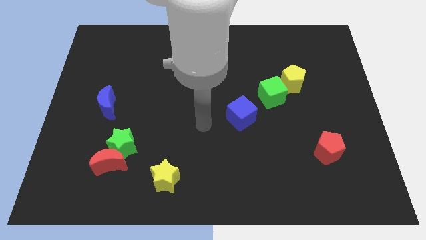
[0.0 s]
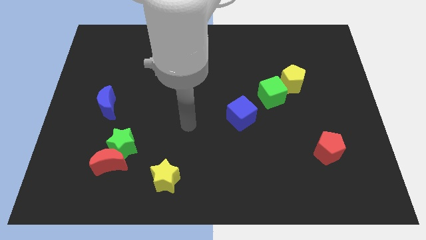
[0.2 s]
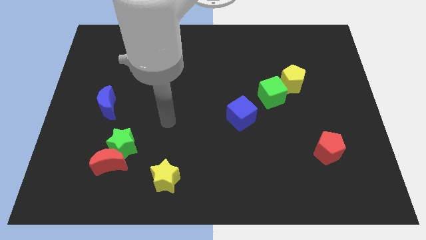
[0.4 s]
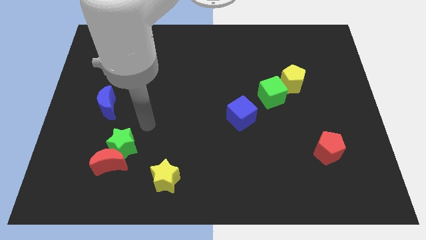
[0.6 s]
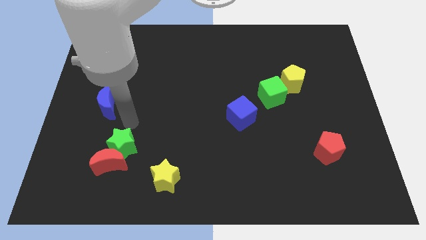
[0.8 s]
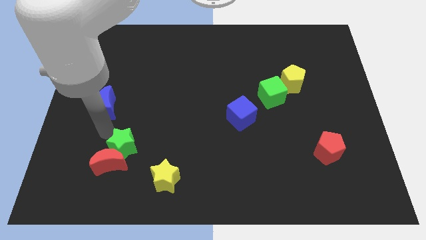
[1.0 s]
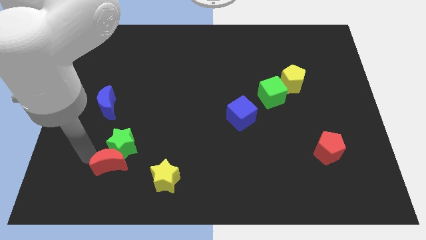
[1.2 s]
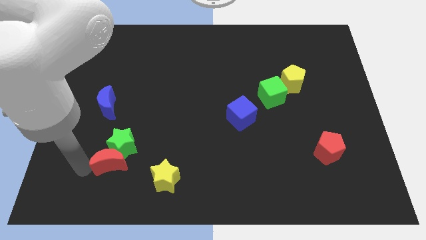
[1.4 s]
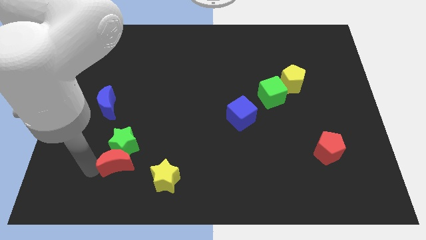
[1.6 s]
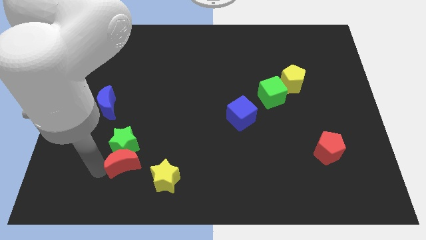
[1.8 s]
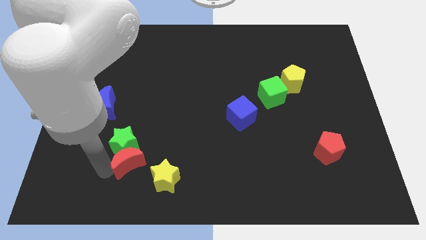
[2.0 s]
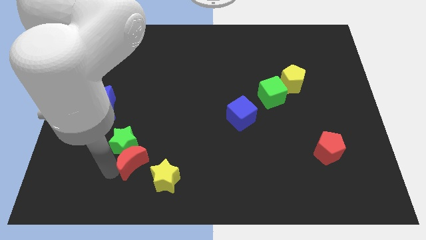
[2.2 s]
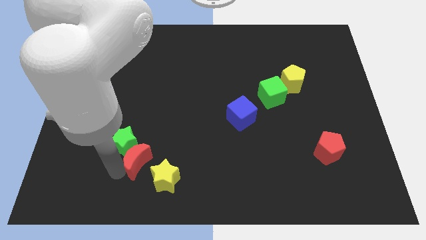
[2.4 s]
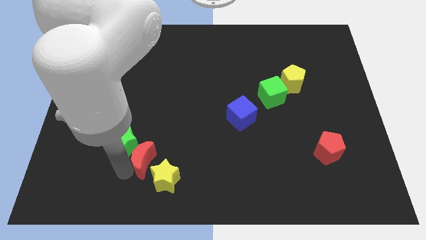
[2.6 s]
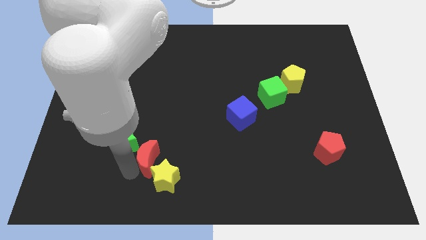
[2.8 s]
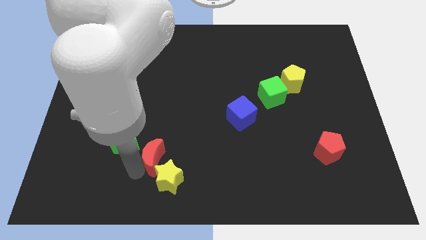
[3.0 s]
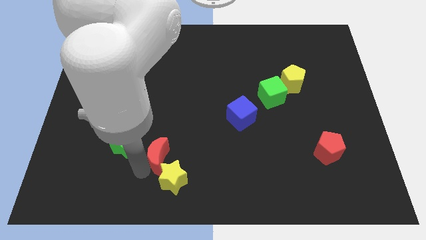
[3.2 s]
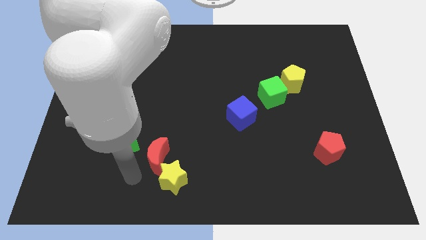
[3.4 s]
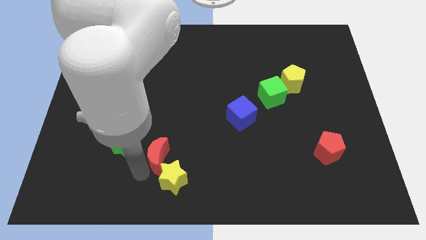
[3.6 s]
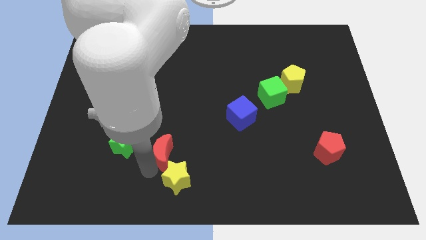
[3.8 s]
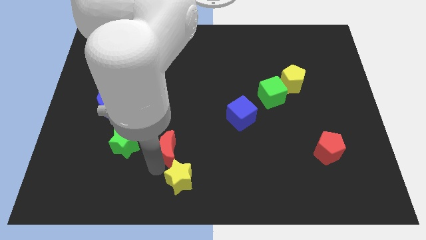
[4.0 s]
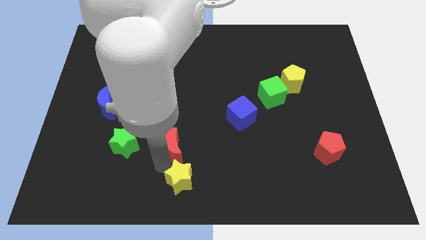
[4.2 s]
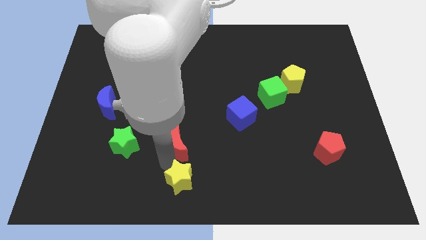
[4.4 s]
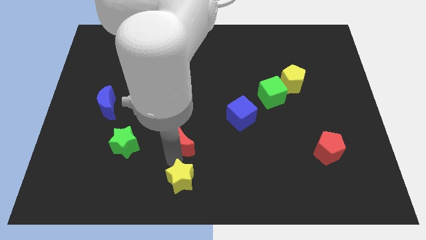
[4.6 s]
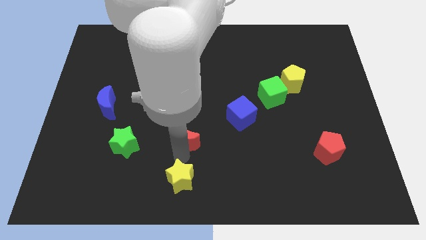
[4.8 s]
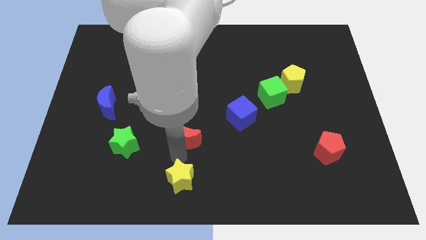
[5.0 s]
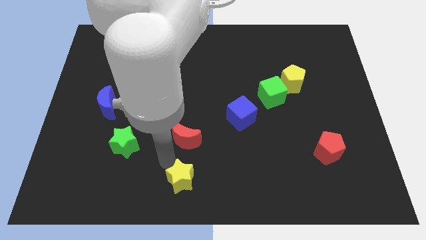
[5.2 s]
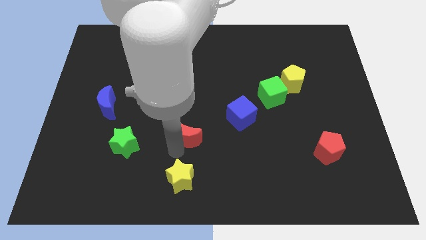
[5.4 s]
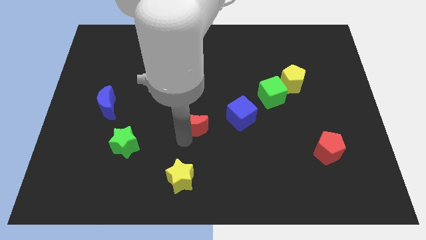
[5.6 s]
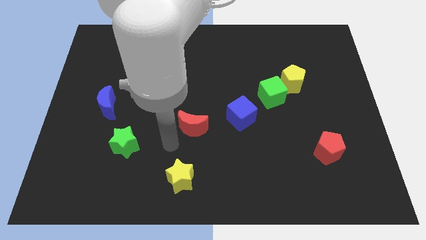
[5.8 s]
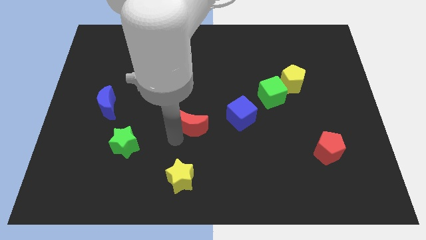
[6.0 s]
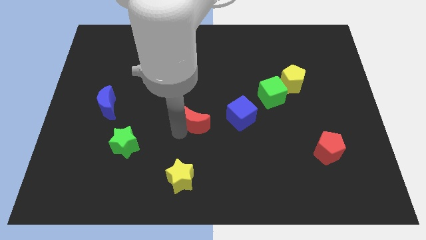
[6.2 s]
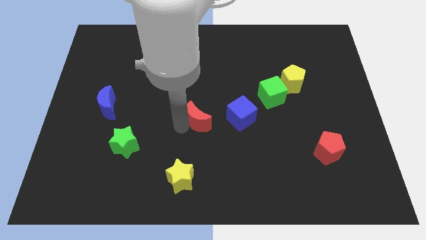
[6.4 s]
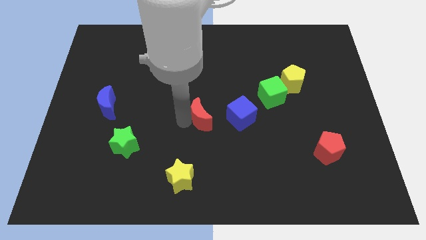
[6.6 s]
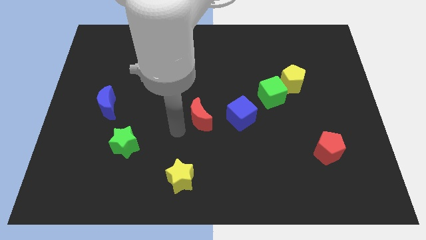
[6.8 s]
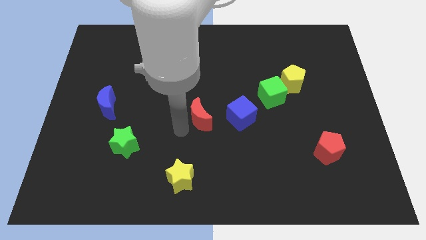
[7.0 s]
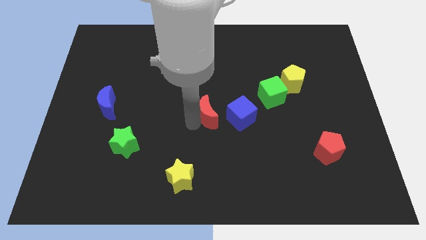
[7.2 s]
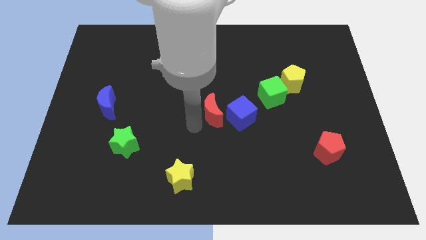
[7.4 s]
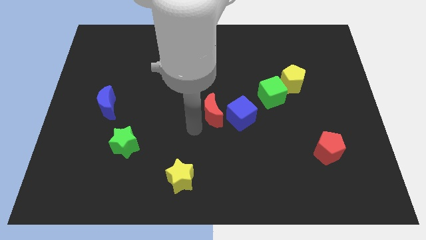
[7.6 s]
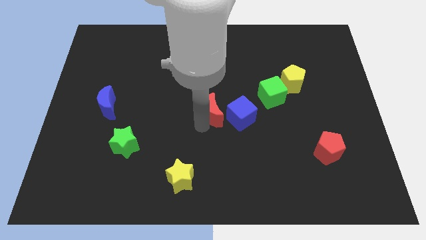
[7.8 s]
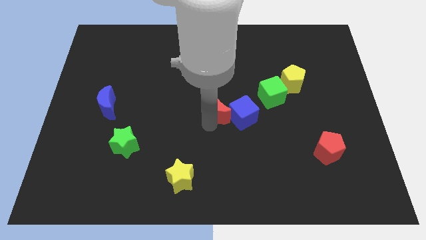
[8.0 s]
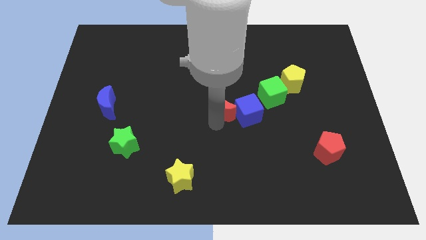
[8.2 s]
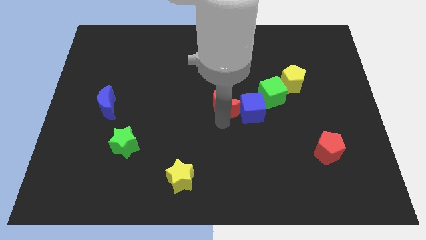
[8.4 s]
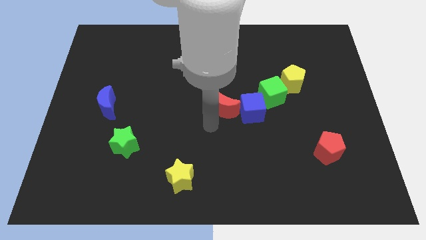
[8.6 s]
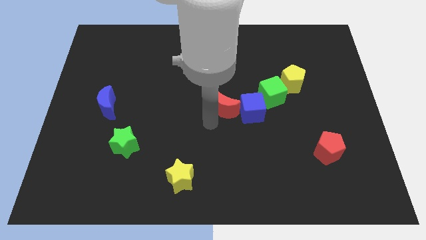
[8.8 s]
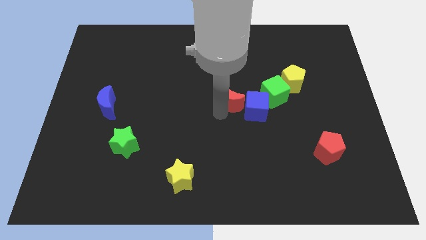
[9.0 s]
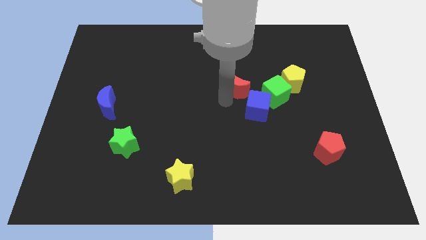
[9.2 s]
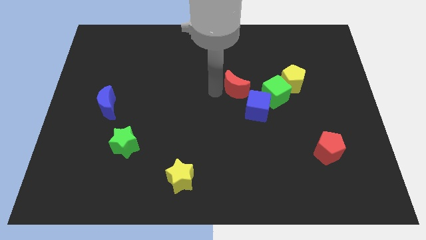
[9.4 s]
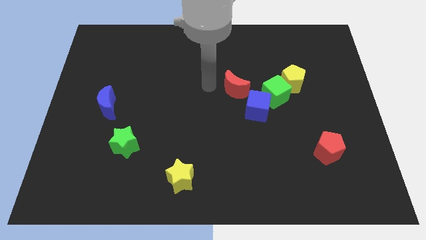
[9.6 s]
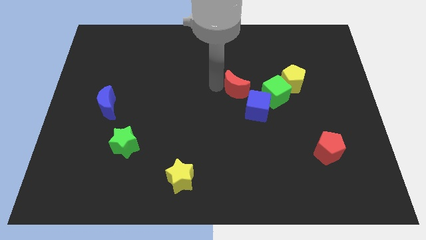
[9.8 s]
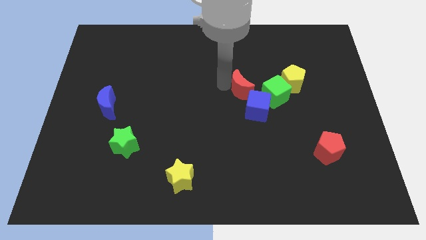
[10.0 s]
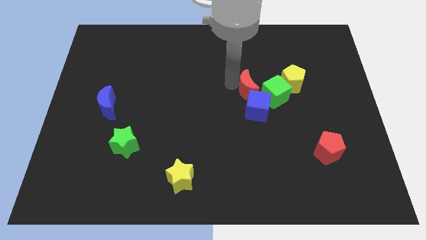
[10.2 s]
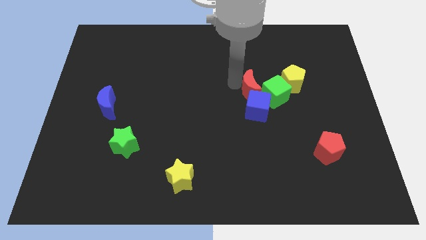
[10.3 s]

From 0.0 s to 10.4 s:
slide the red moon next to the green cube

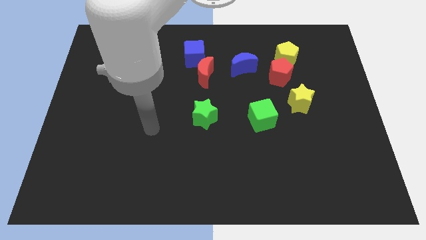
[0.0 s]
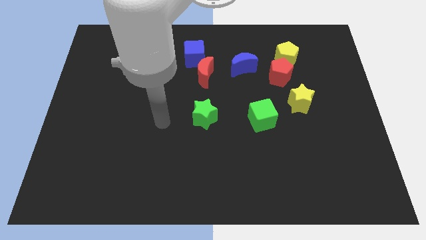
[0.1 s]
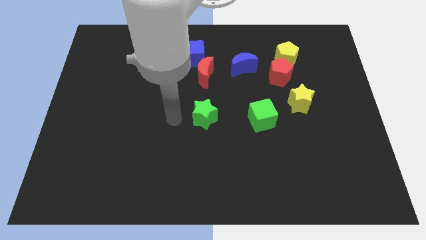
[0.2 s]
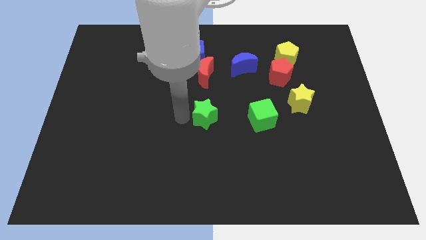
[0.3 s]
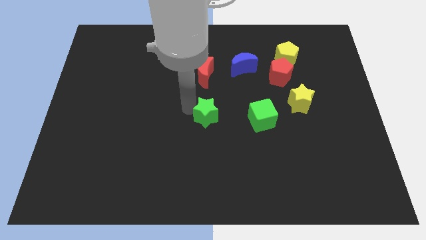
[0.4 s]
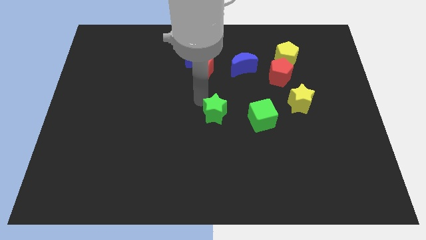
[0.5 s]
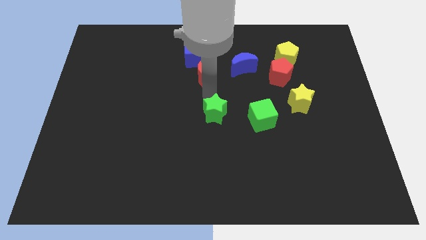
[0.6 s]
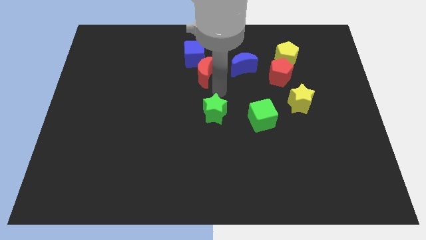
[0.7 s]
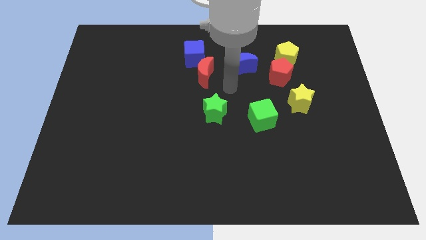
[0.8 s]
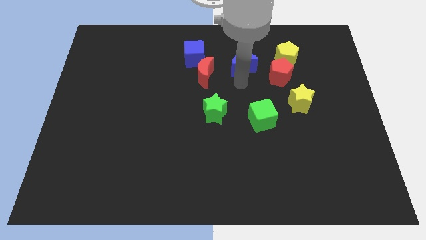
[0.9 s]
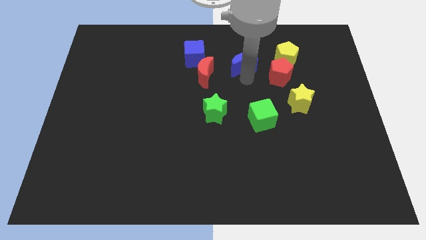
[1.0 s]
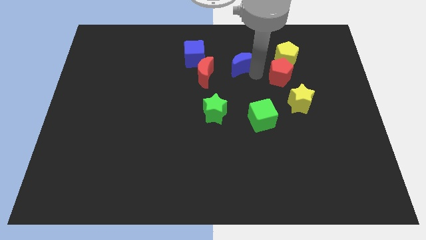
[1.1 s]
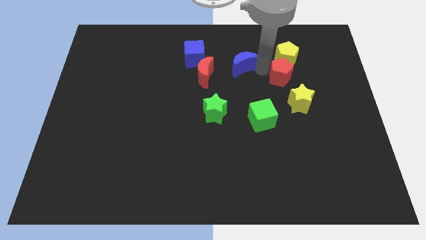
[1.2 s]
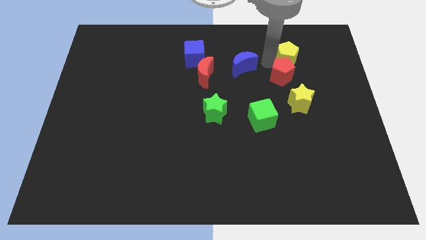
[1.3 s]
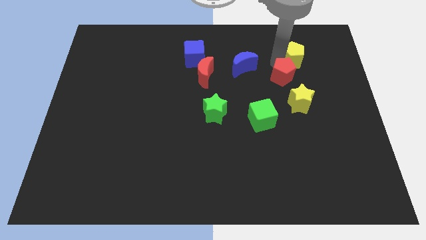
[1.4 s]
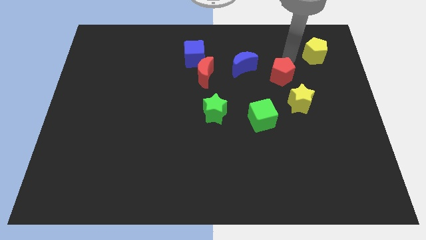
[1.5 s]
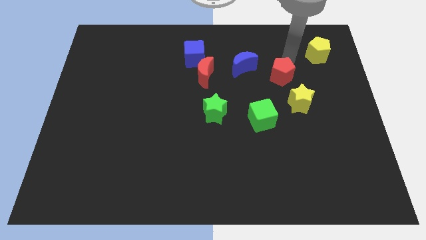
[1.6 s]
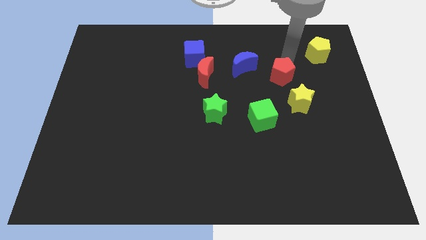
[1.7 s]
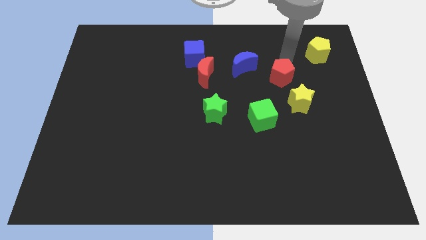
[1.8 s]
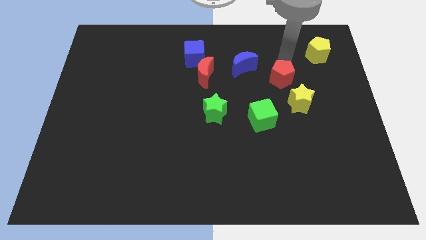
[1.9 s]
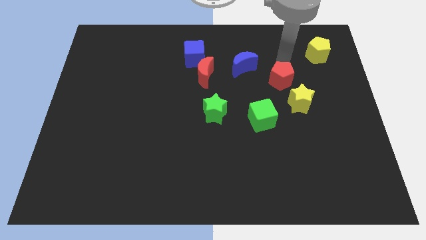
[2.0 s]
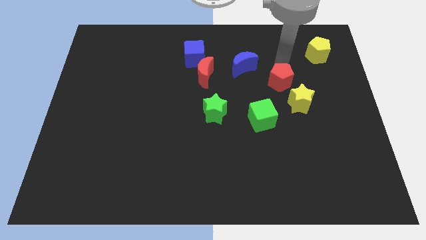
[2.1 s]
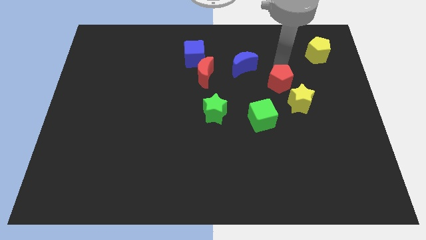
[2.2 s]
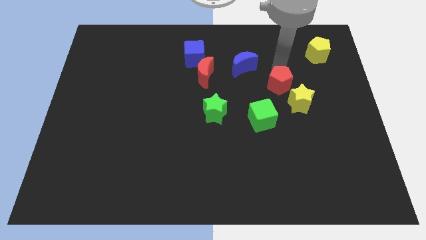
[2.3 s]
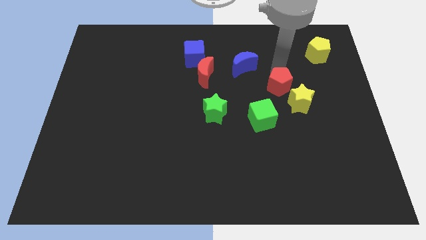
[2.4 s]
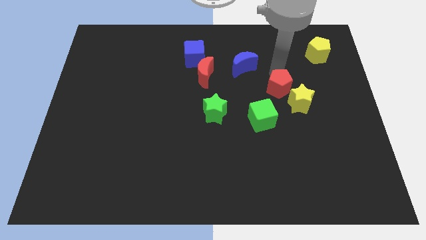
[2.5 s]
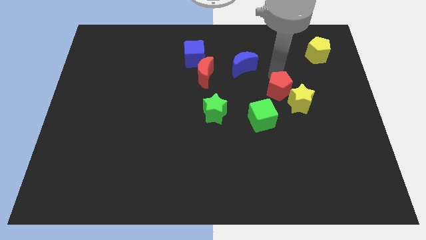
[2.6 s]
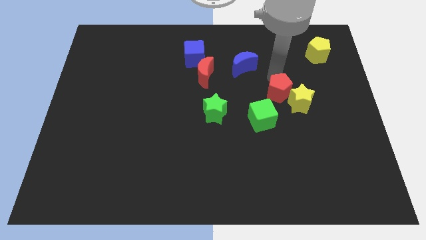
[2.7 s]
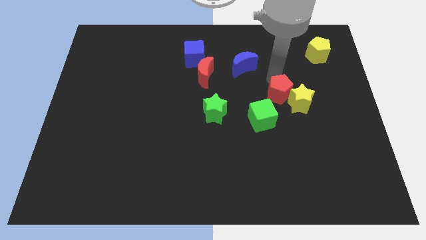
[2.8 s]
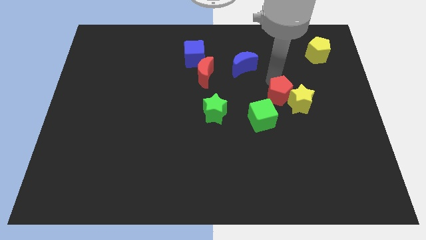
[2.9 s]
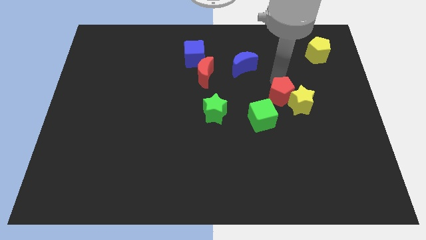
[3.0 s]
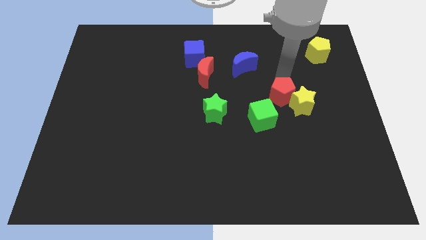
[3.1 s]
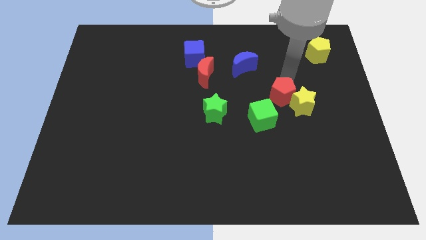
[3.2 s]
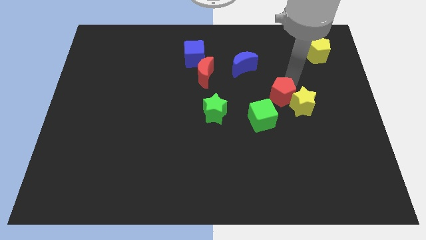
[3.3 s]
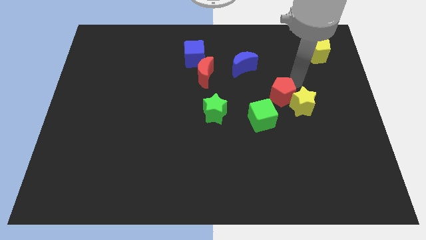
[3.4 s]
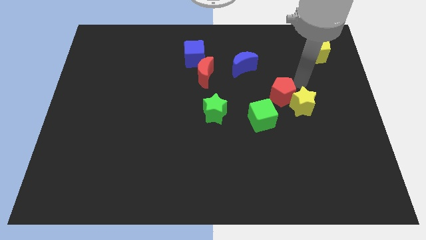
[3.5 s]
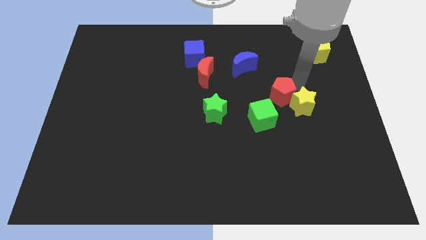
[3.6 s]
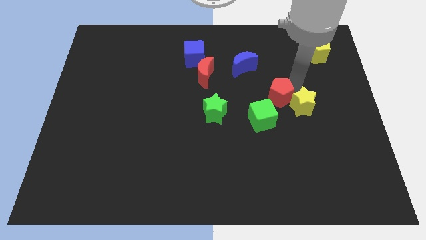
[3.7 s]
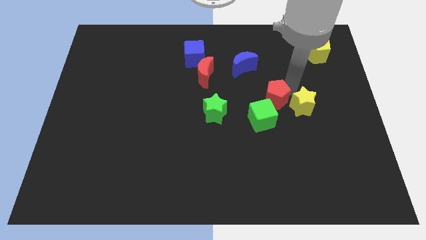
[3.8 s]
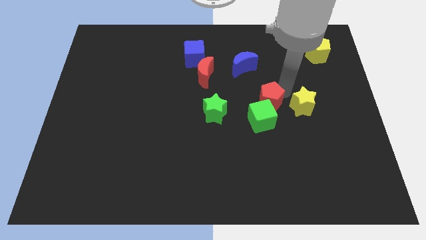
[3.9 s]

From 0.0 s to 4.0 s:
move the red pentagon close to the green cube
